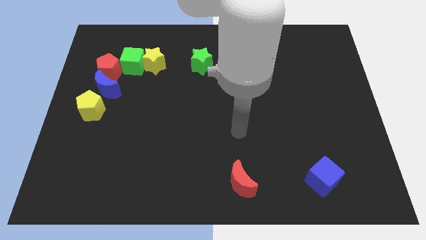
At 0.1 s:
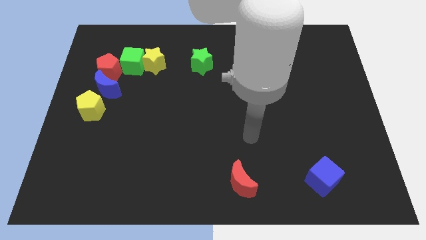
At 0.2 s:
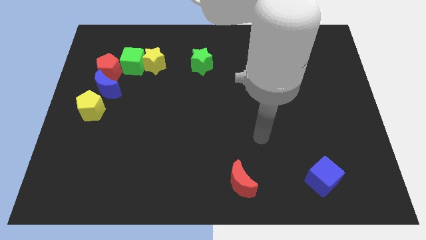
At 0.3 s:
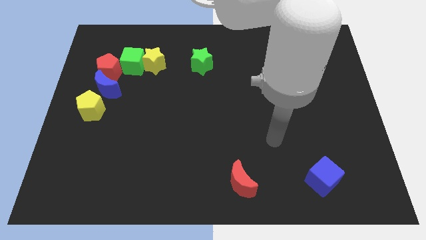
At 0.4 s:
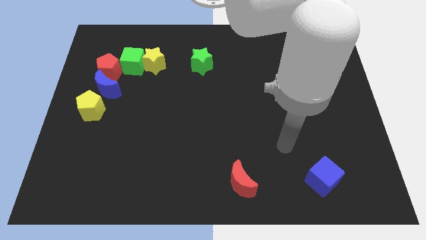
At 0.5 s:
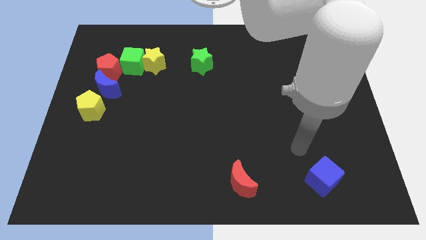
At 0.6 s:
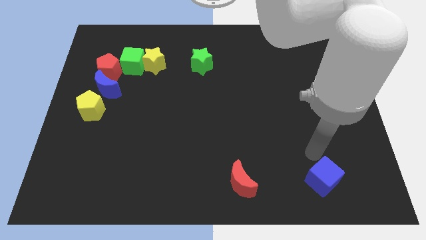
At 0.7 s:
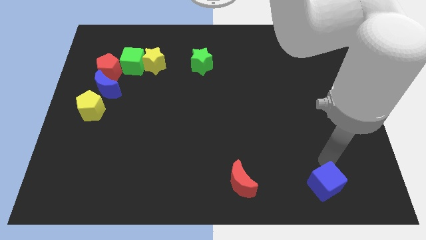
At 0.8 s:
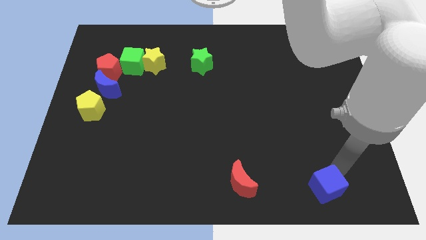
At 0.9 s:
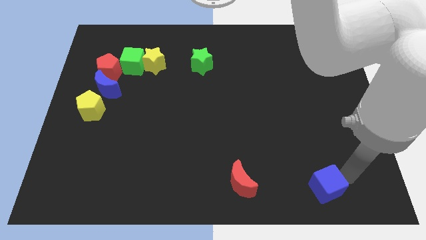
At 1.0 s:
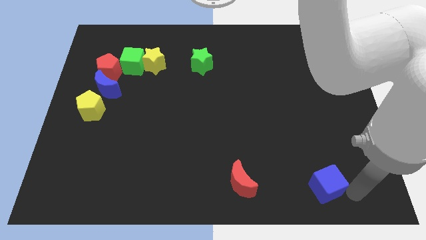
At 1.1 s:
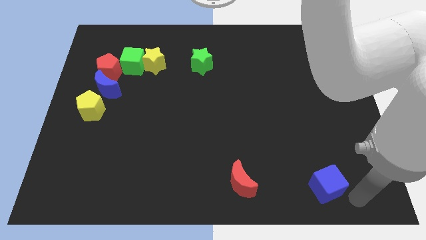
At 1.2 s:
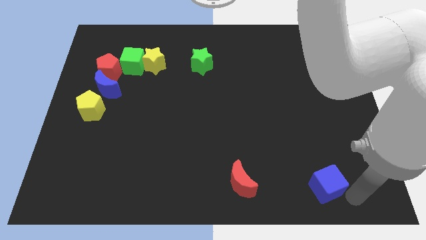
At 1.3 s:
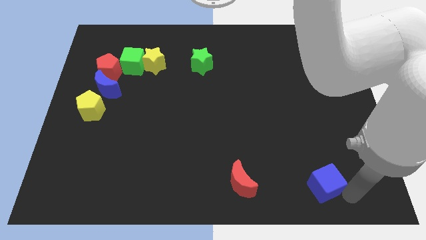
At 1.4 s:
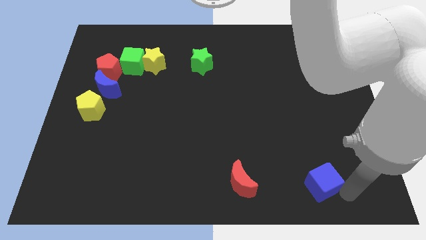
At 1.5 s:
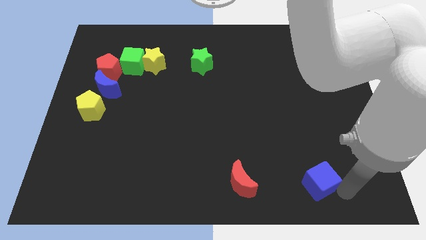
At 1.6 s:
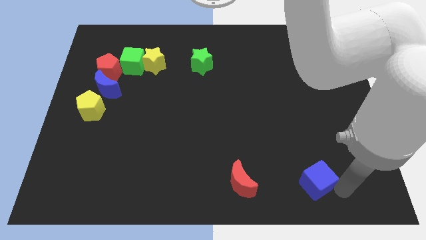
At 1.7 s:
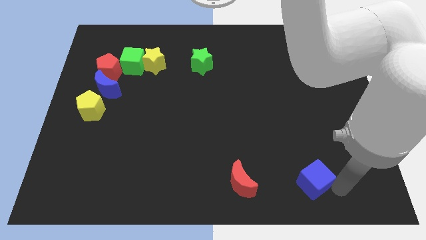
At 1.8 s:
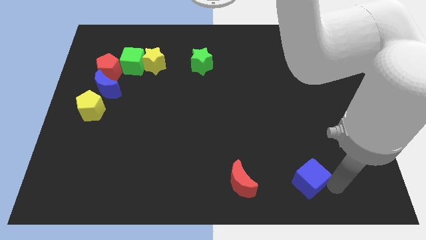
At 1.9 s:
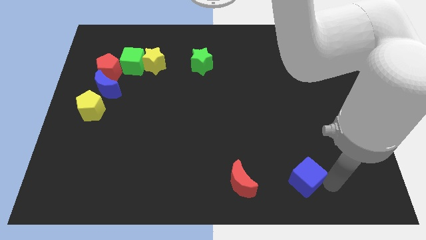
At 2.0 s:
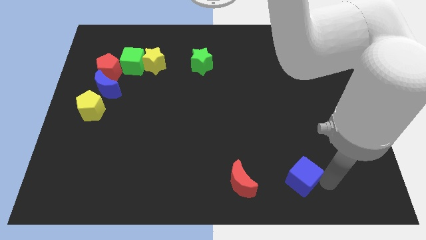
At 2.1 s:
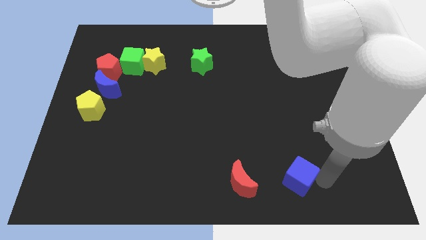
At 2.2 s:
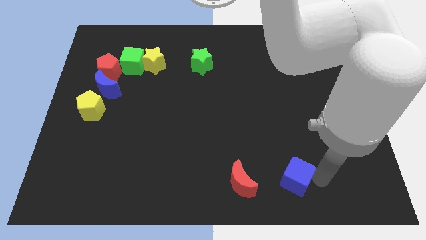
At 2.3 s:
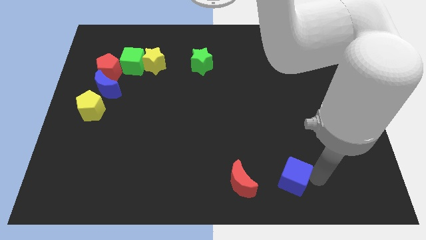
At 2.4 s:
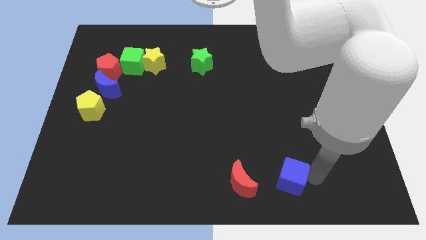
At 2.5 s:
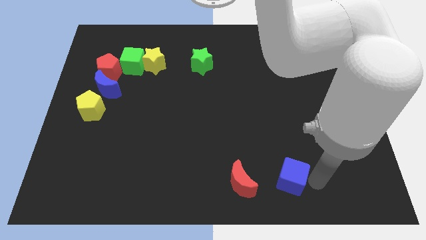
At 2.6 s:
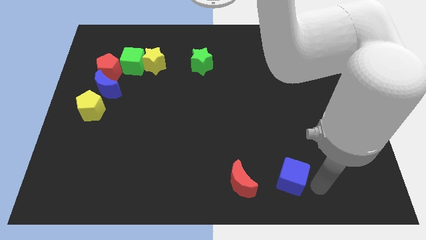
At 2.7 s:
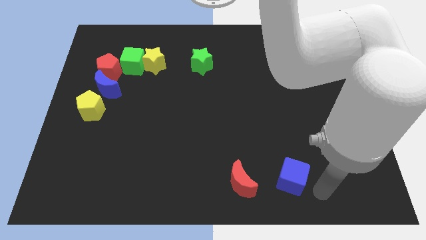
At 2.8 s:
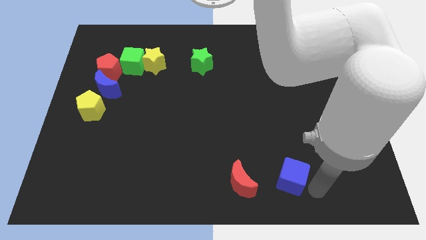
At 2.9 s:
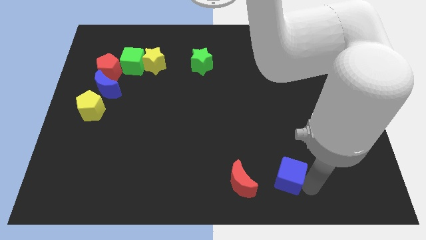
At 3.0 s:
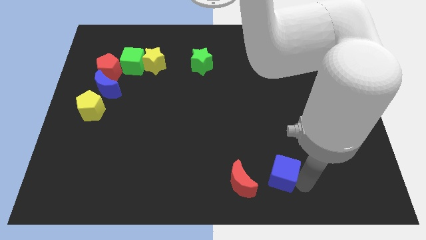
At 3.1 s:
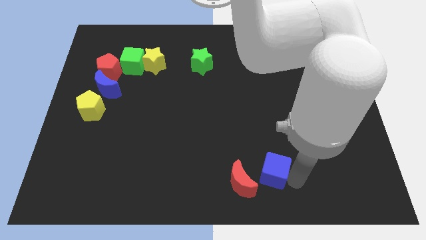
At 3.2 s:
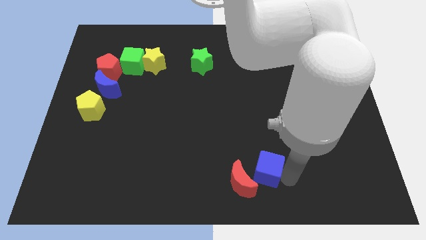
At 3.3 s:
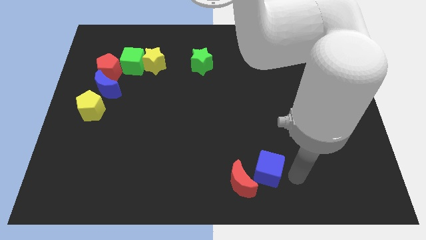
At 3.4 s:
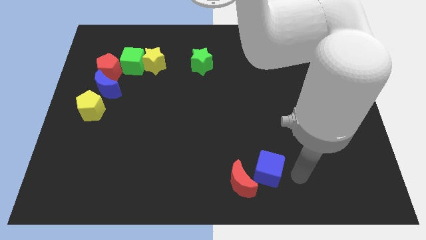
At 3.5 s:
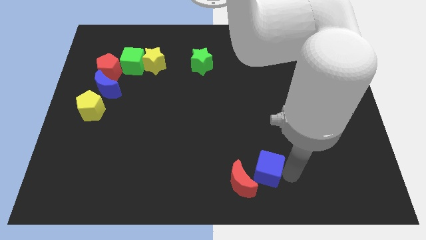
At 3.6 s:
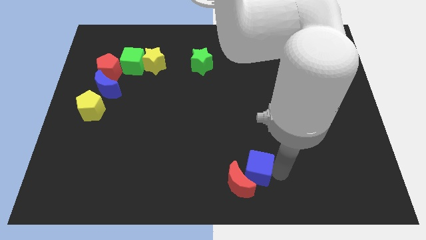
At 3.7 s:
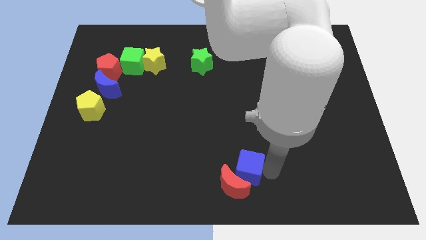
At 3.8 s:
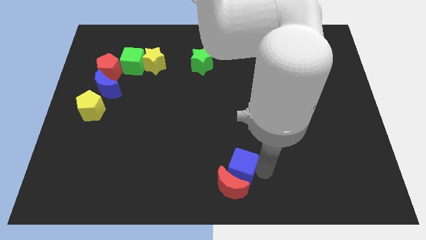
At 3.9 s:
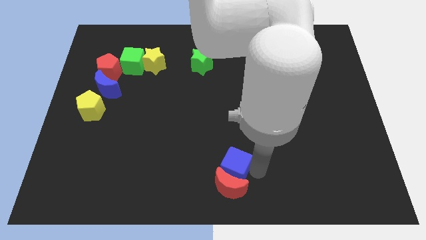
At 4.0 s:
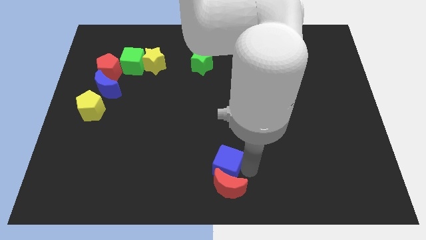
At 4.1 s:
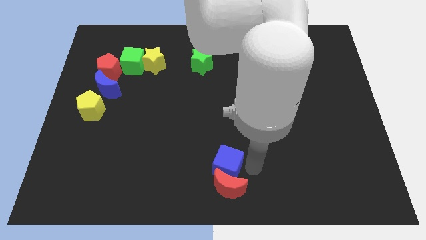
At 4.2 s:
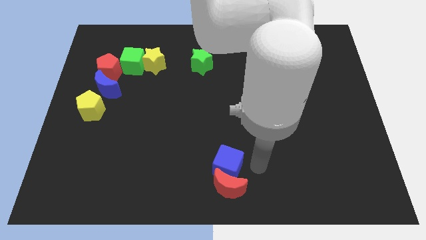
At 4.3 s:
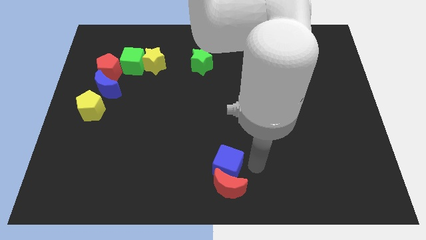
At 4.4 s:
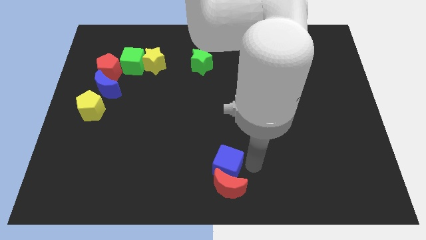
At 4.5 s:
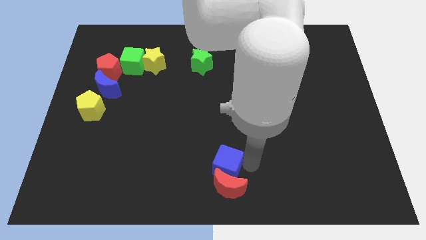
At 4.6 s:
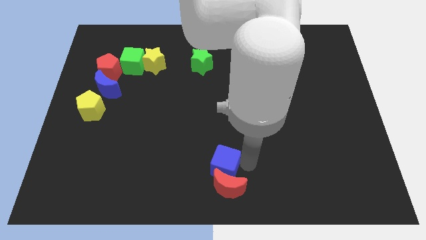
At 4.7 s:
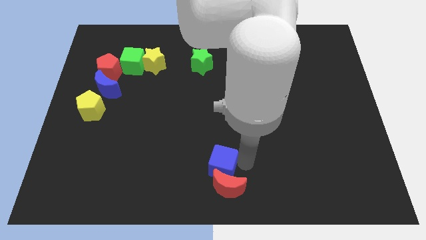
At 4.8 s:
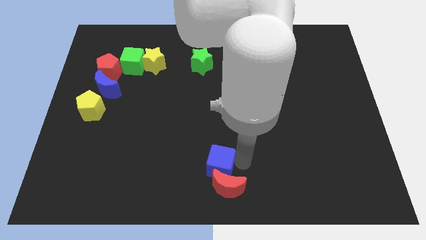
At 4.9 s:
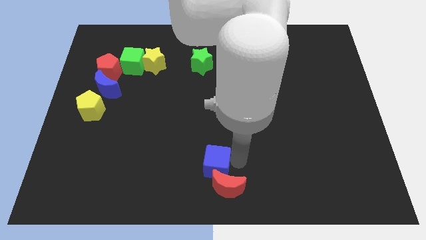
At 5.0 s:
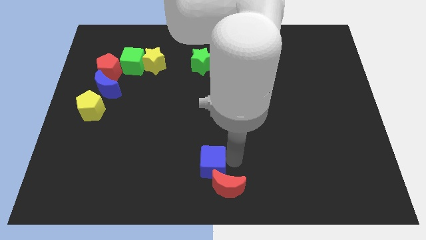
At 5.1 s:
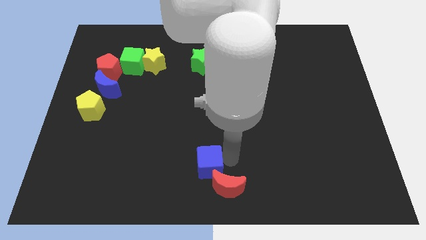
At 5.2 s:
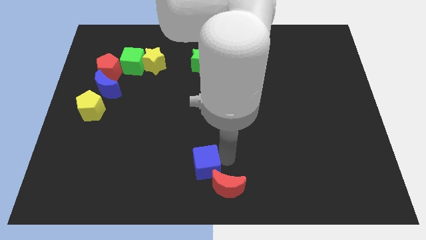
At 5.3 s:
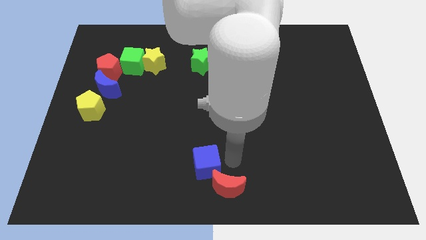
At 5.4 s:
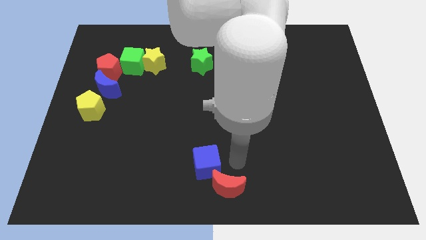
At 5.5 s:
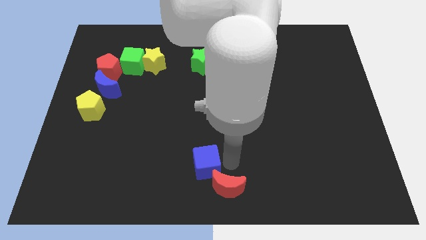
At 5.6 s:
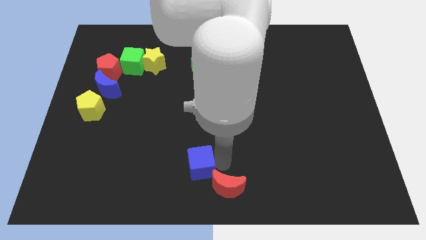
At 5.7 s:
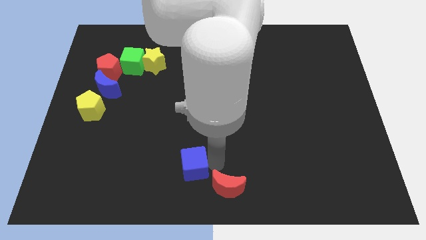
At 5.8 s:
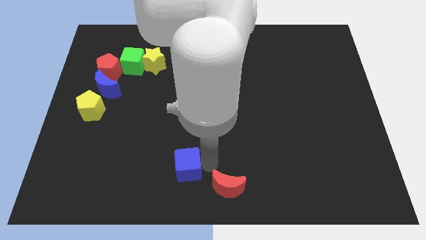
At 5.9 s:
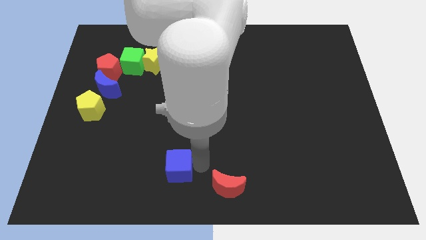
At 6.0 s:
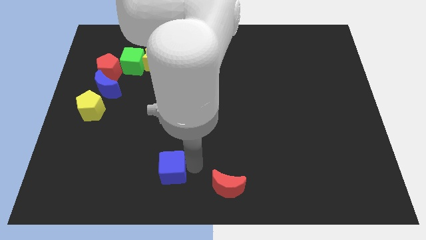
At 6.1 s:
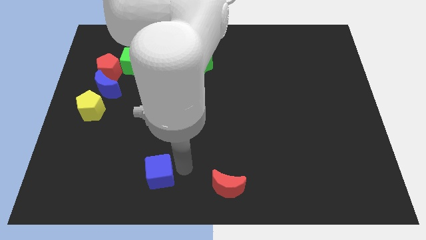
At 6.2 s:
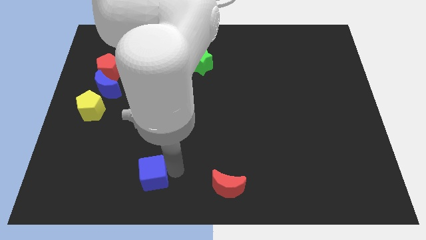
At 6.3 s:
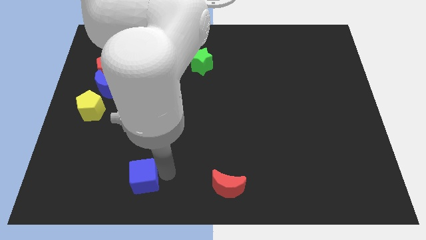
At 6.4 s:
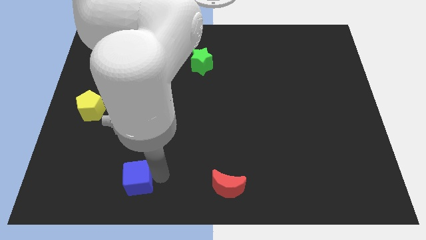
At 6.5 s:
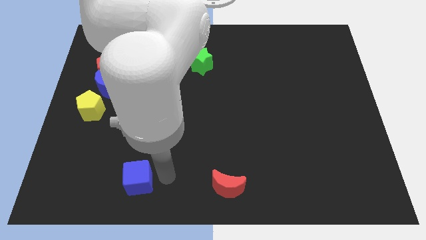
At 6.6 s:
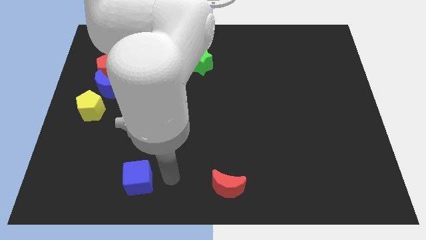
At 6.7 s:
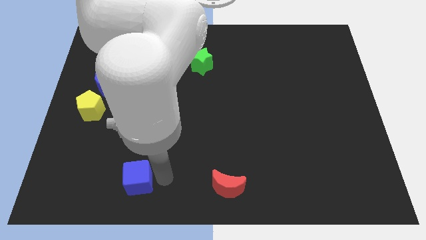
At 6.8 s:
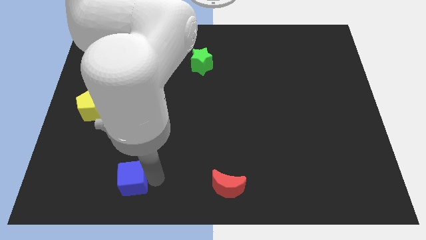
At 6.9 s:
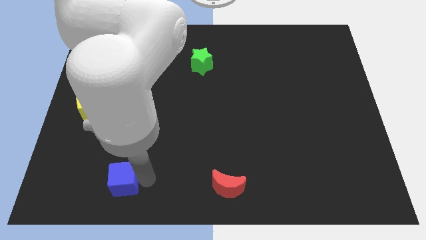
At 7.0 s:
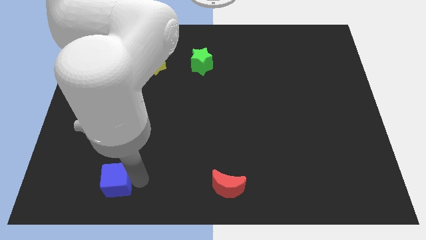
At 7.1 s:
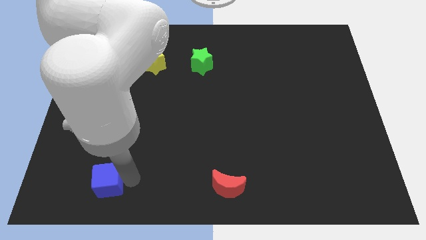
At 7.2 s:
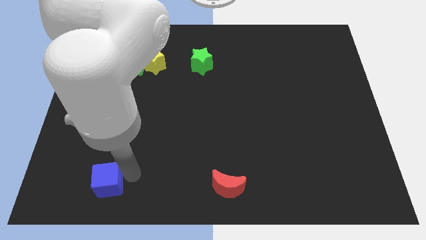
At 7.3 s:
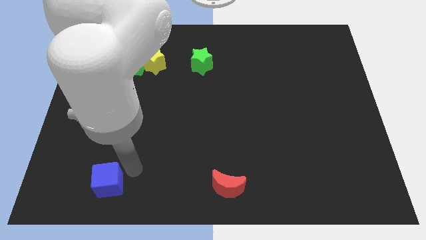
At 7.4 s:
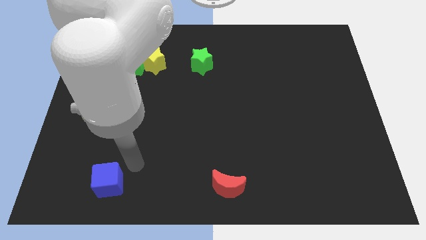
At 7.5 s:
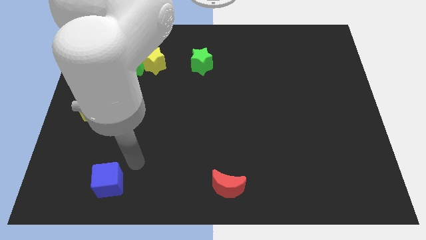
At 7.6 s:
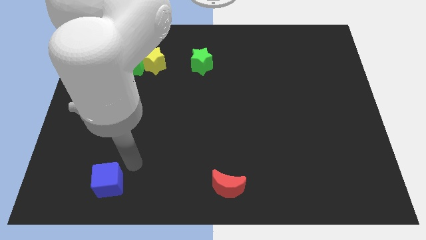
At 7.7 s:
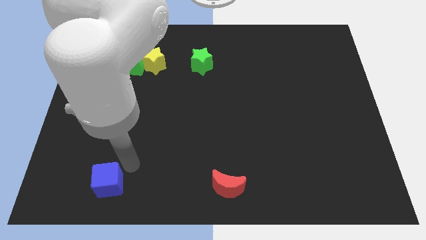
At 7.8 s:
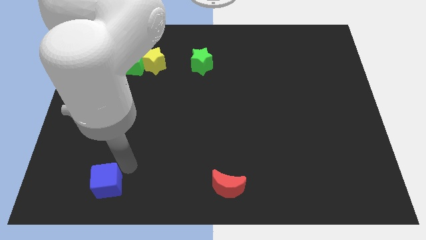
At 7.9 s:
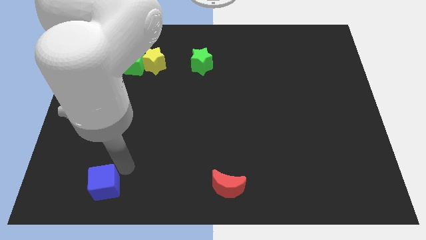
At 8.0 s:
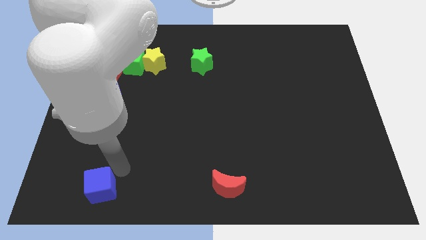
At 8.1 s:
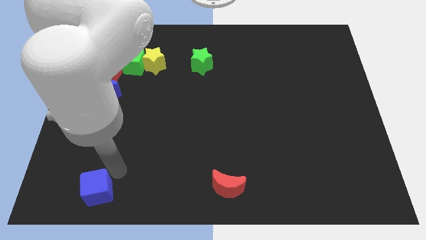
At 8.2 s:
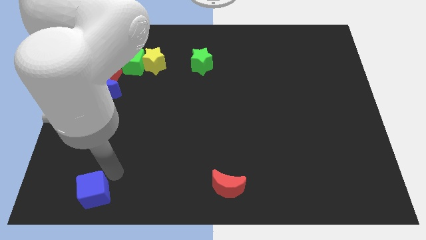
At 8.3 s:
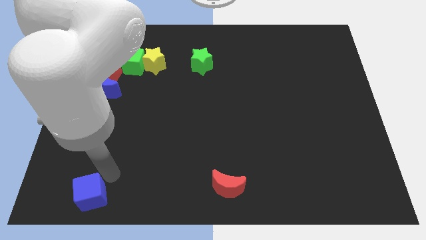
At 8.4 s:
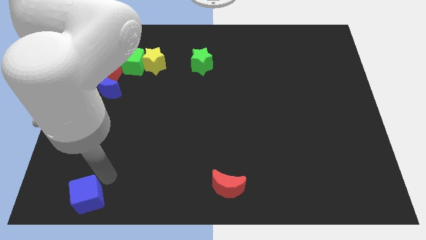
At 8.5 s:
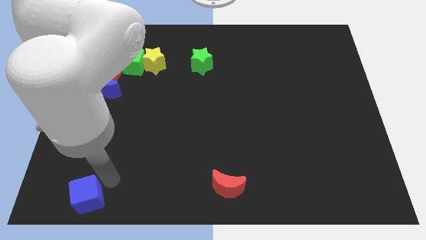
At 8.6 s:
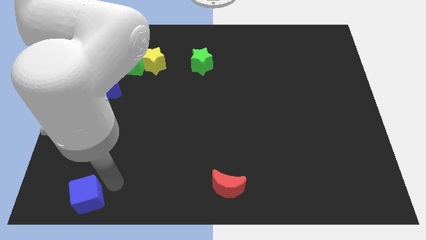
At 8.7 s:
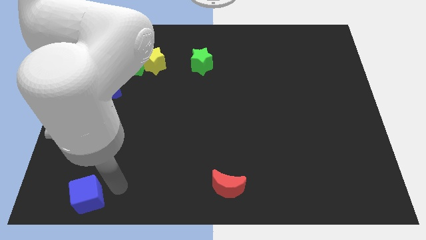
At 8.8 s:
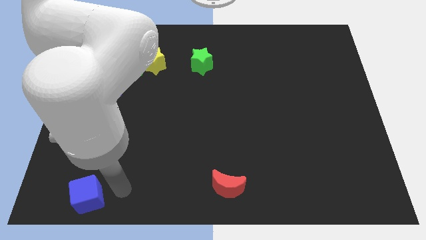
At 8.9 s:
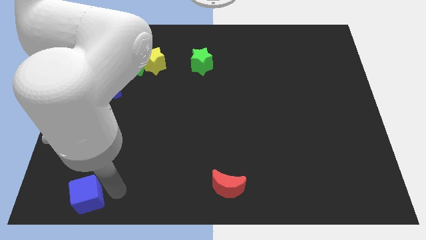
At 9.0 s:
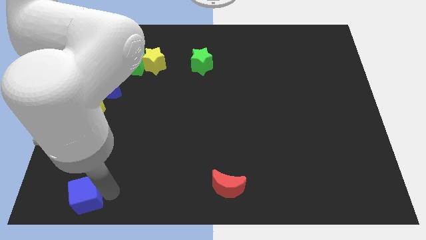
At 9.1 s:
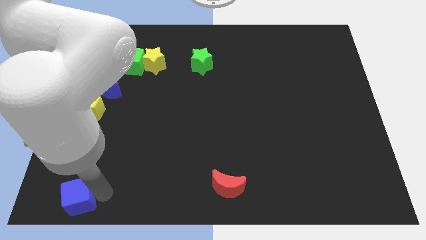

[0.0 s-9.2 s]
slide the blue cube to the bottom left corner
